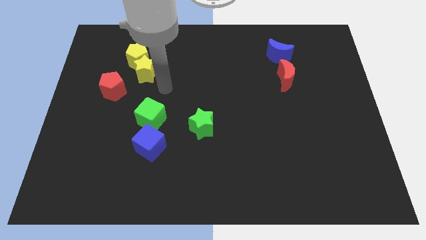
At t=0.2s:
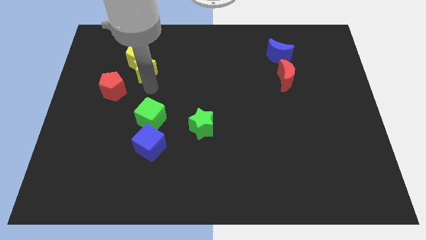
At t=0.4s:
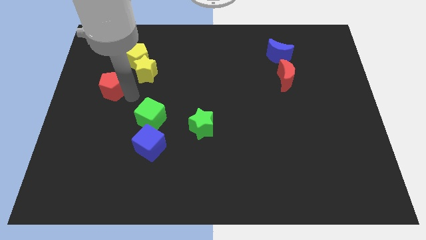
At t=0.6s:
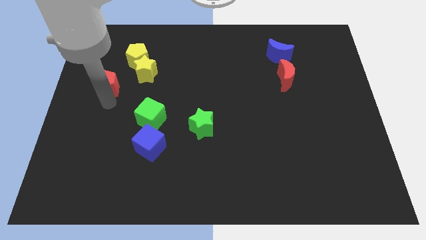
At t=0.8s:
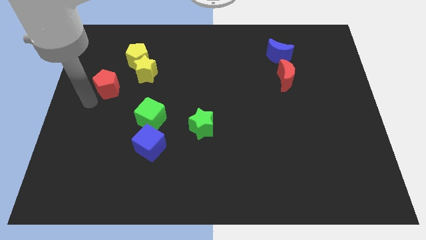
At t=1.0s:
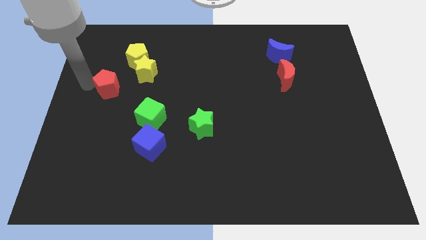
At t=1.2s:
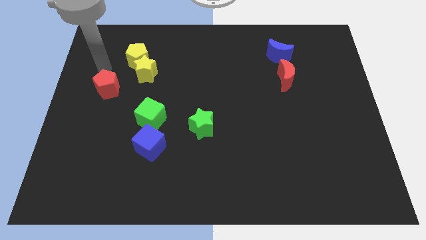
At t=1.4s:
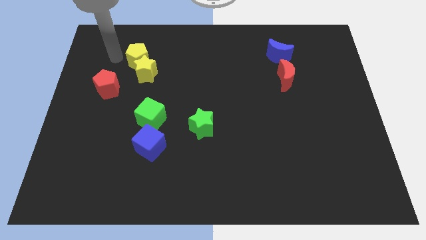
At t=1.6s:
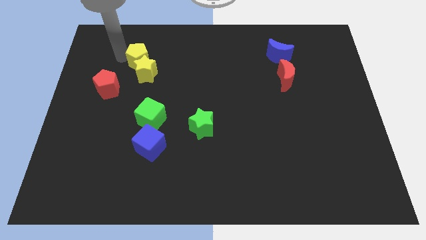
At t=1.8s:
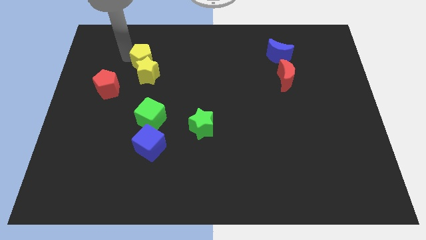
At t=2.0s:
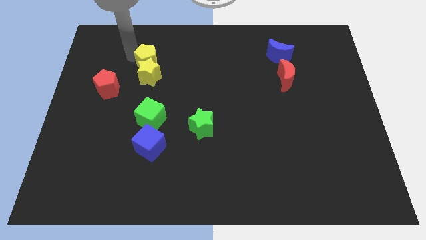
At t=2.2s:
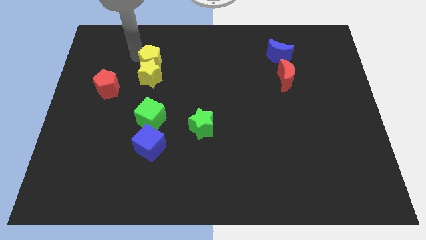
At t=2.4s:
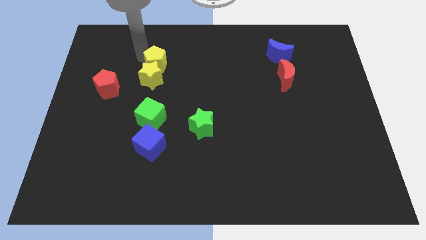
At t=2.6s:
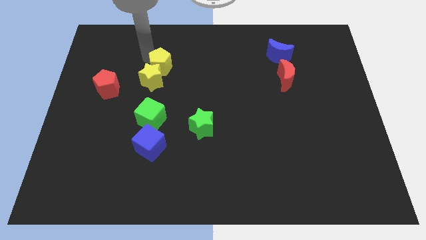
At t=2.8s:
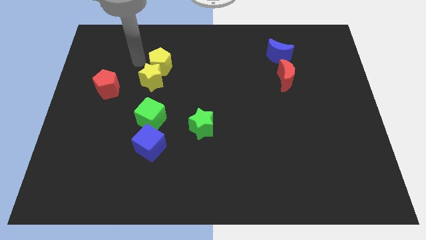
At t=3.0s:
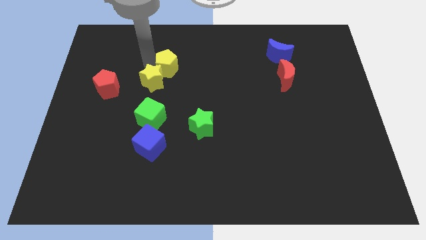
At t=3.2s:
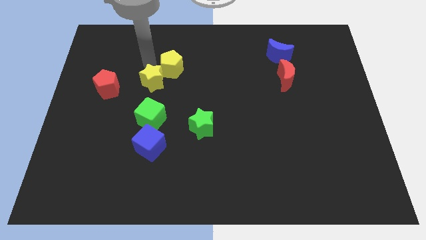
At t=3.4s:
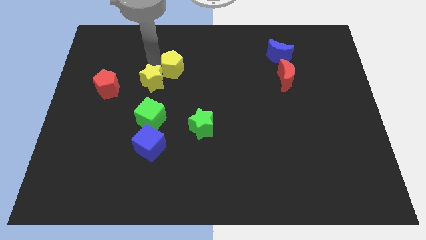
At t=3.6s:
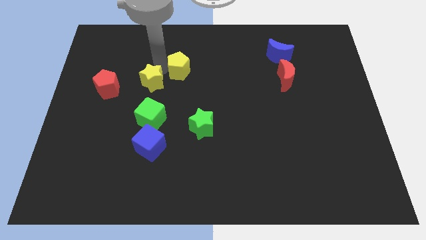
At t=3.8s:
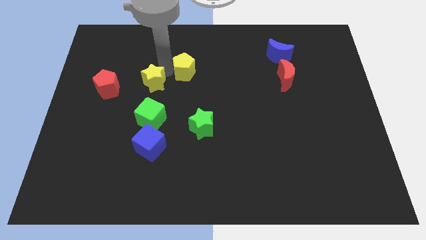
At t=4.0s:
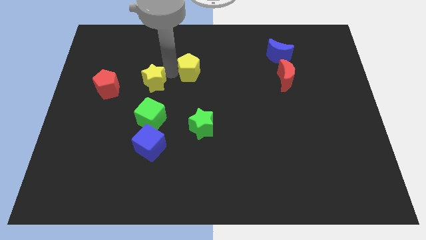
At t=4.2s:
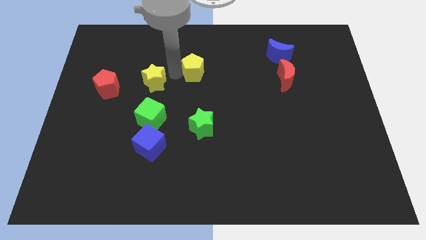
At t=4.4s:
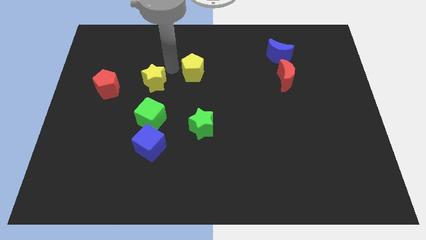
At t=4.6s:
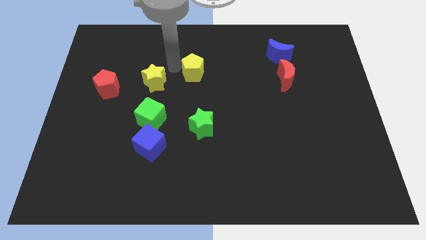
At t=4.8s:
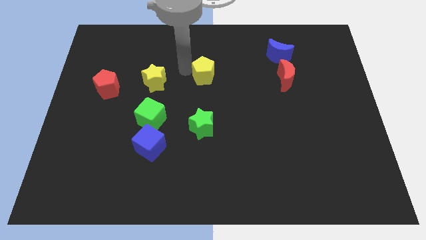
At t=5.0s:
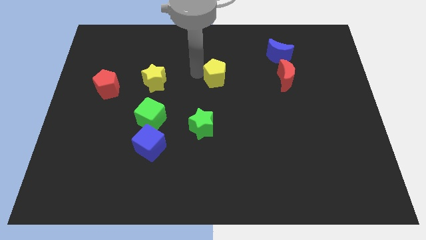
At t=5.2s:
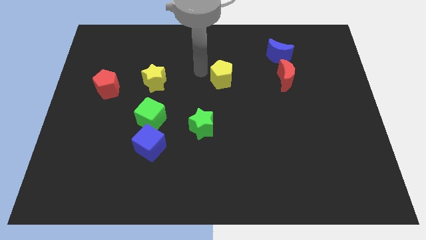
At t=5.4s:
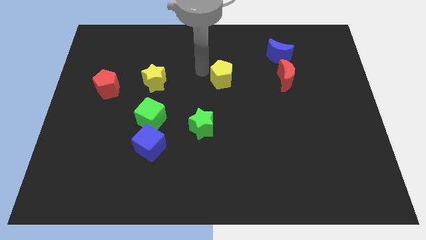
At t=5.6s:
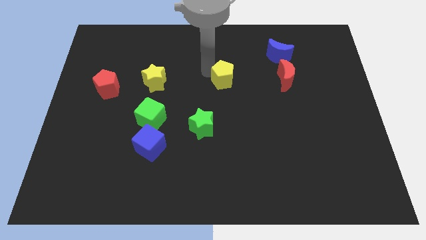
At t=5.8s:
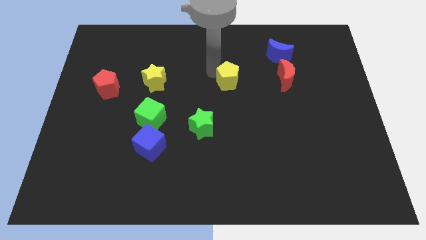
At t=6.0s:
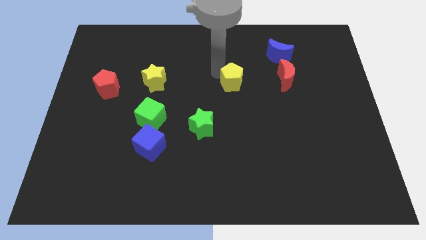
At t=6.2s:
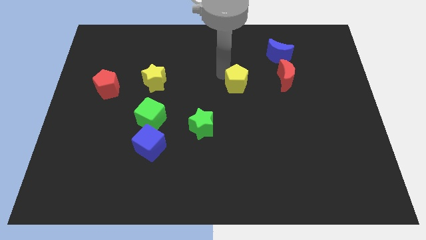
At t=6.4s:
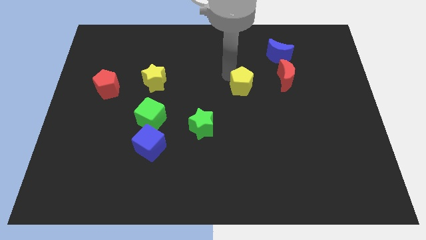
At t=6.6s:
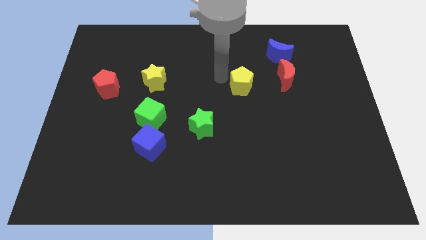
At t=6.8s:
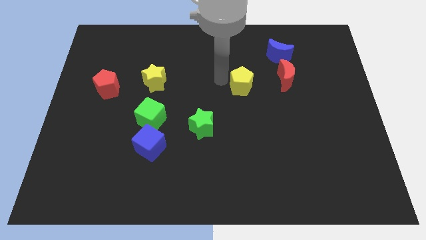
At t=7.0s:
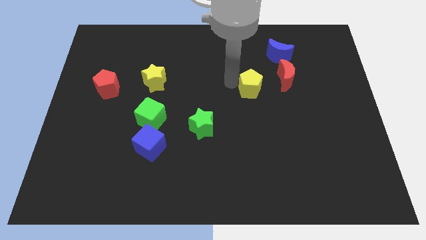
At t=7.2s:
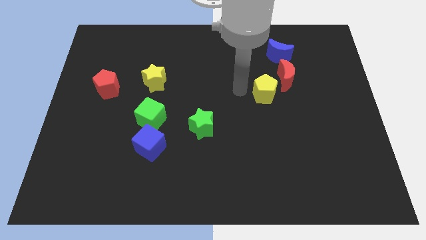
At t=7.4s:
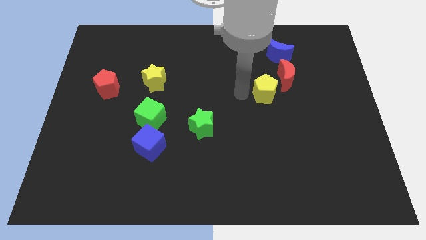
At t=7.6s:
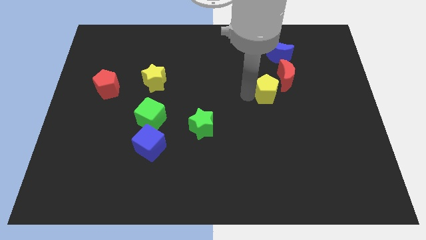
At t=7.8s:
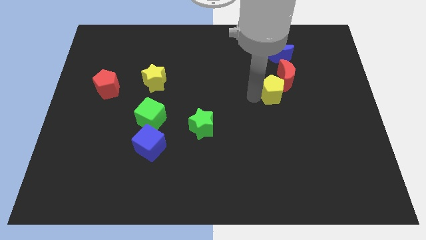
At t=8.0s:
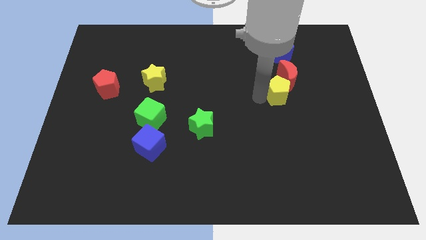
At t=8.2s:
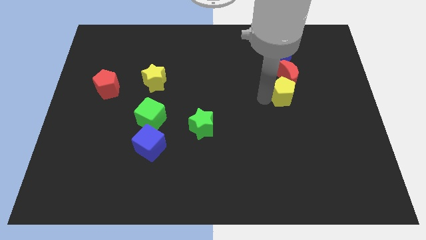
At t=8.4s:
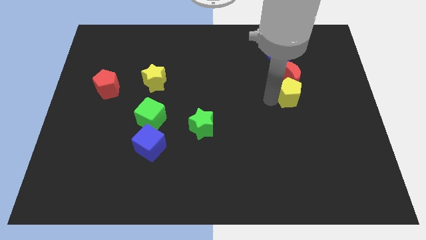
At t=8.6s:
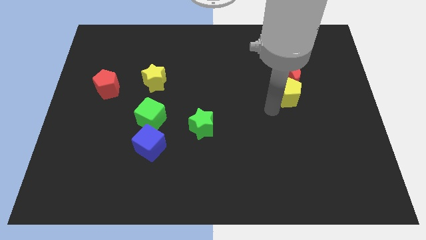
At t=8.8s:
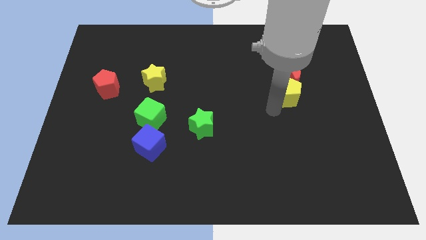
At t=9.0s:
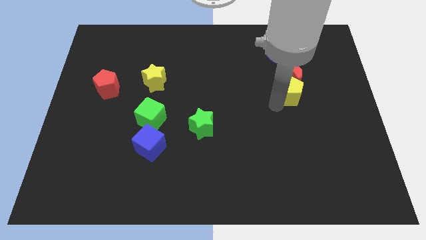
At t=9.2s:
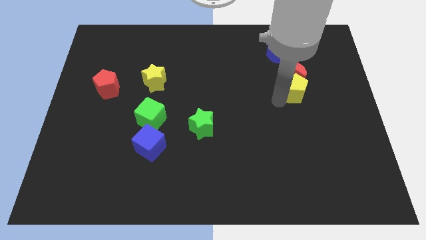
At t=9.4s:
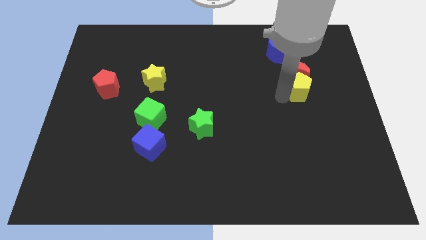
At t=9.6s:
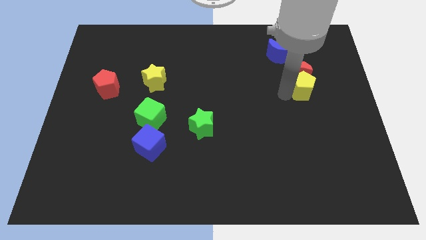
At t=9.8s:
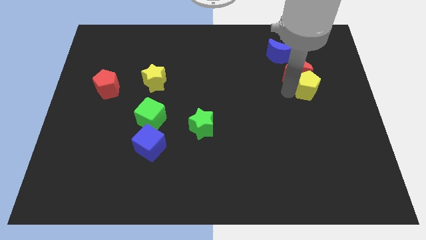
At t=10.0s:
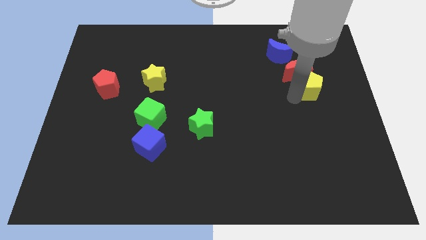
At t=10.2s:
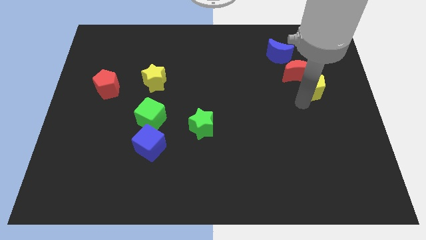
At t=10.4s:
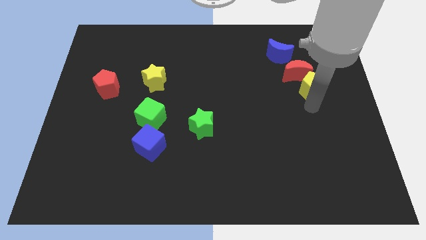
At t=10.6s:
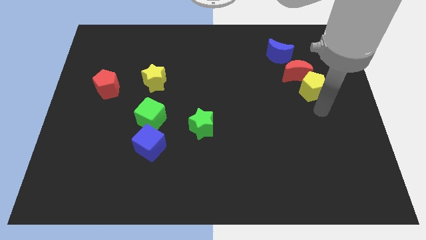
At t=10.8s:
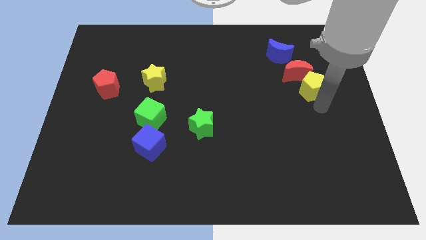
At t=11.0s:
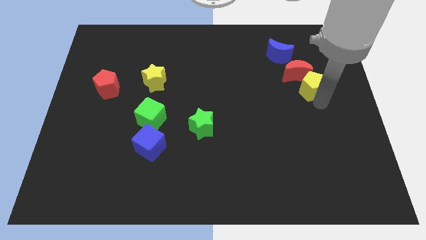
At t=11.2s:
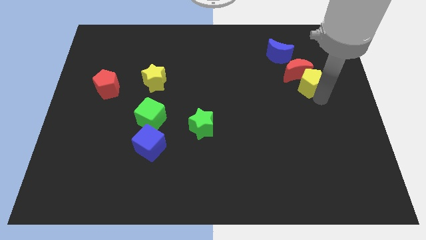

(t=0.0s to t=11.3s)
move the yellow pentagon to the bottom right side of the blue moon
